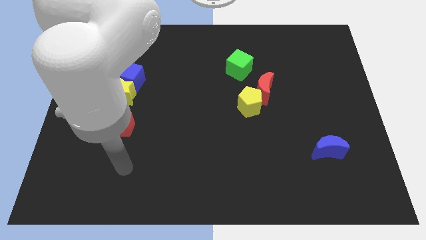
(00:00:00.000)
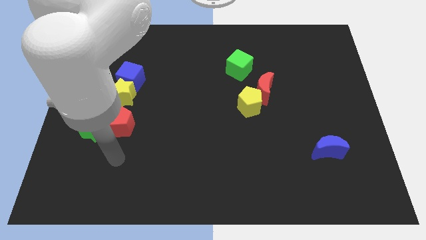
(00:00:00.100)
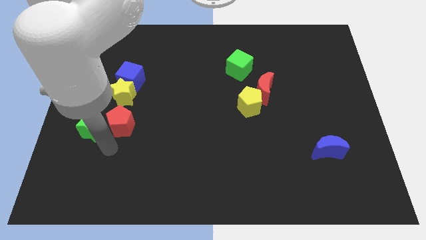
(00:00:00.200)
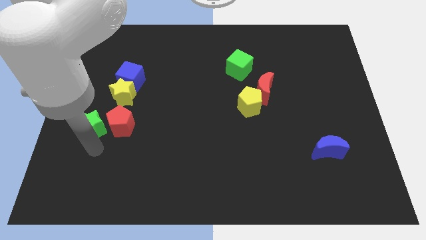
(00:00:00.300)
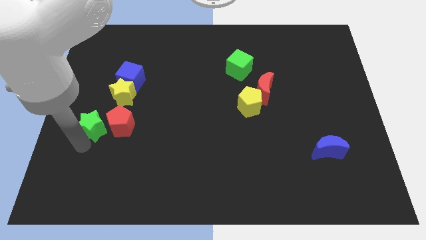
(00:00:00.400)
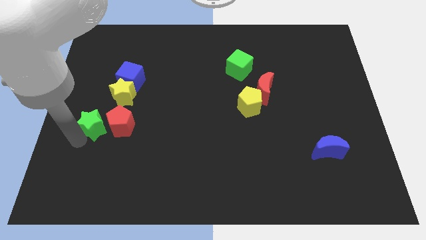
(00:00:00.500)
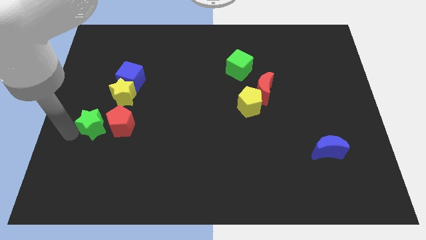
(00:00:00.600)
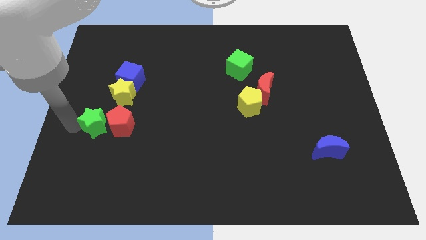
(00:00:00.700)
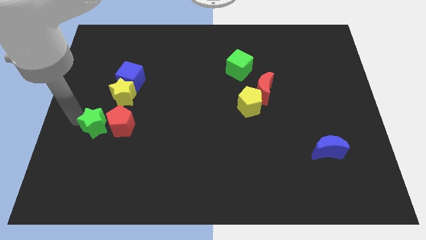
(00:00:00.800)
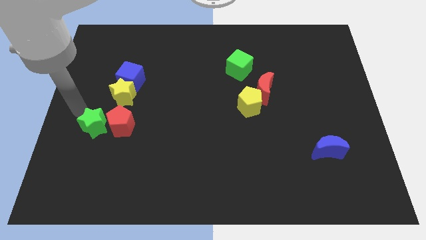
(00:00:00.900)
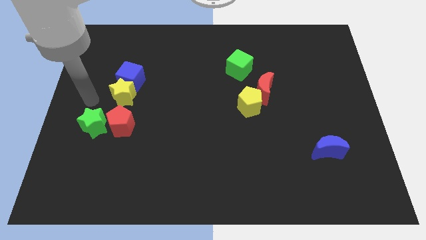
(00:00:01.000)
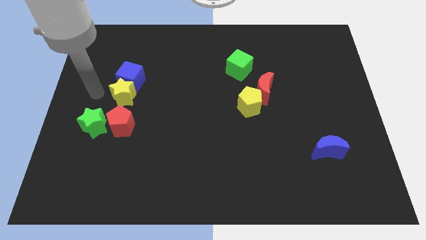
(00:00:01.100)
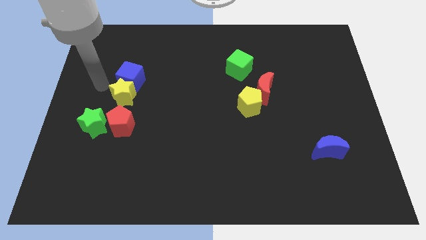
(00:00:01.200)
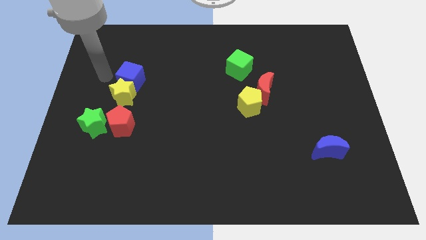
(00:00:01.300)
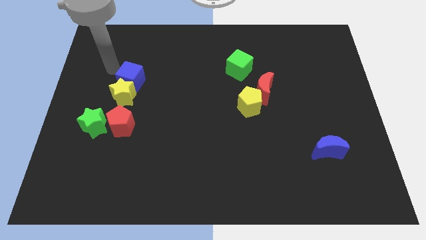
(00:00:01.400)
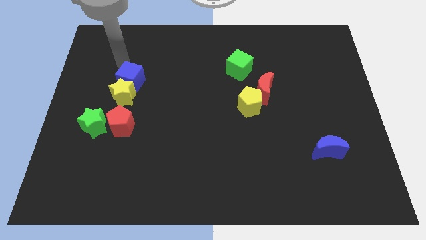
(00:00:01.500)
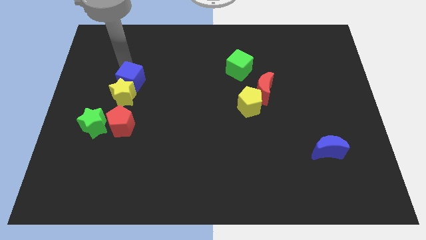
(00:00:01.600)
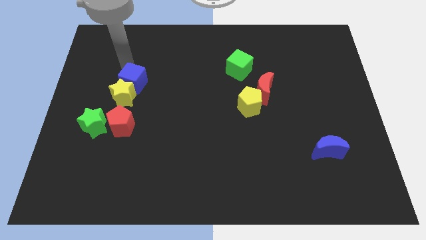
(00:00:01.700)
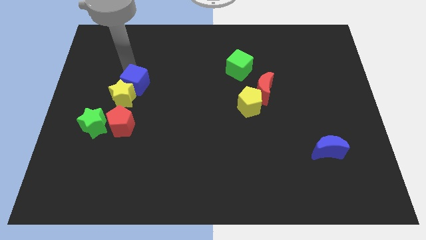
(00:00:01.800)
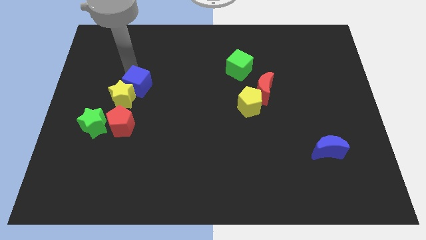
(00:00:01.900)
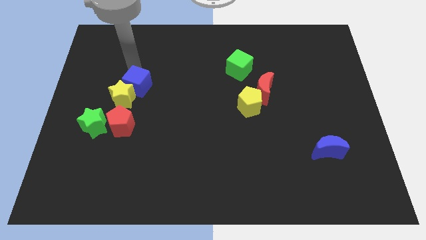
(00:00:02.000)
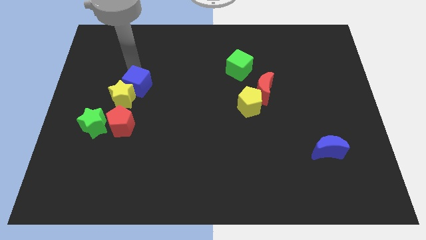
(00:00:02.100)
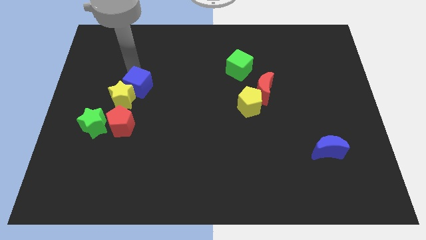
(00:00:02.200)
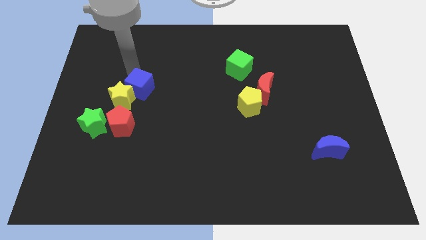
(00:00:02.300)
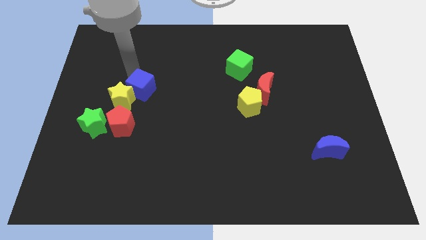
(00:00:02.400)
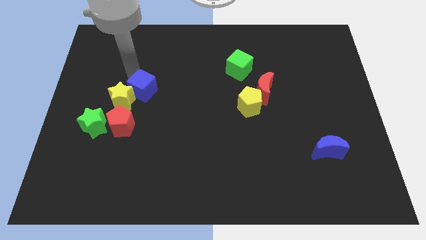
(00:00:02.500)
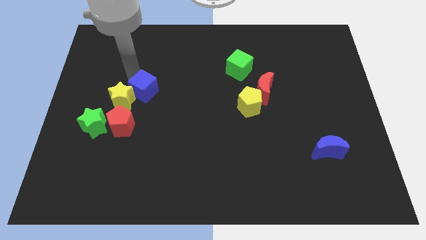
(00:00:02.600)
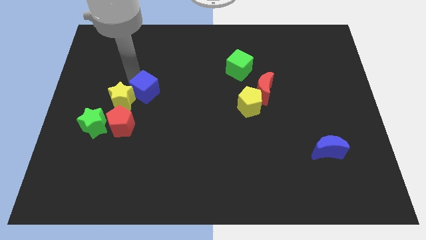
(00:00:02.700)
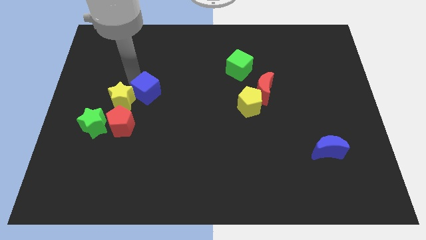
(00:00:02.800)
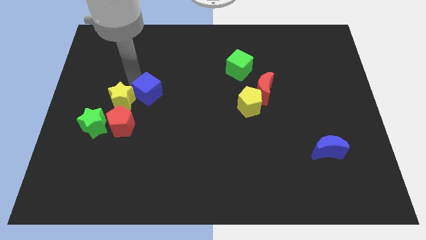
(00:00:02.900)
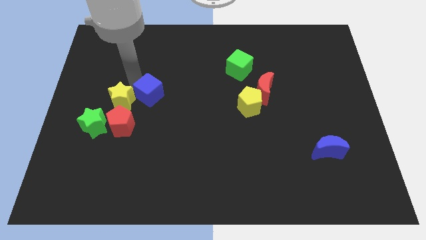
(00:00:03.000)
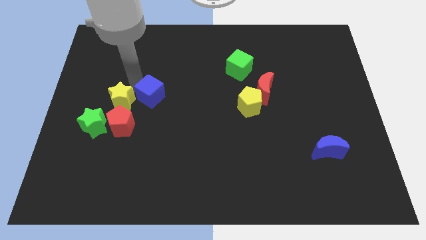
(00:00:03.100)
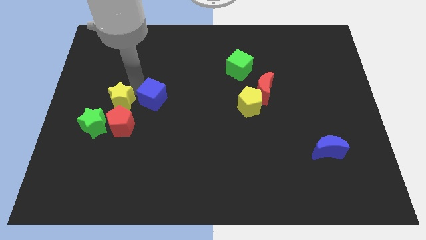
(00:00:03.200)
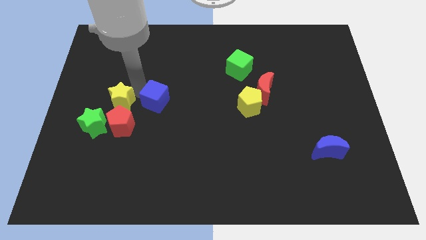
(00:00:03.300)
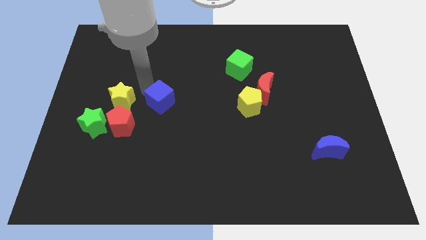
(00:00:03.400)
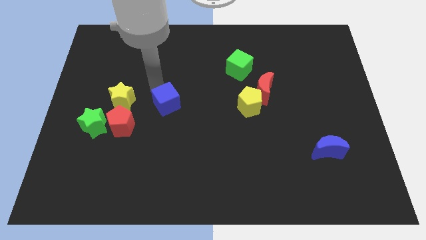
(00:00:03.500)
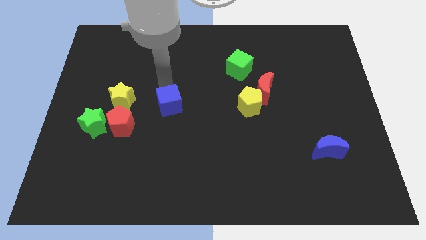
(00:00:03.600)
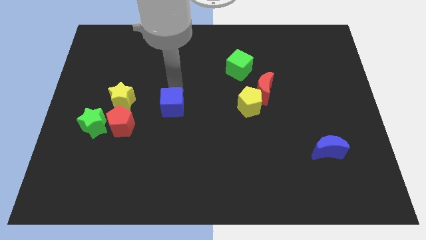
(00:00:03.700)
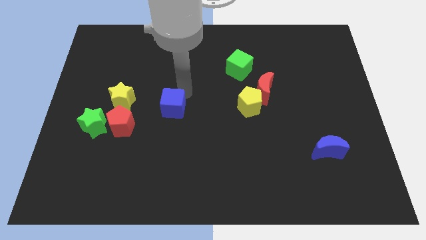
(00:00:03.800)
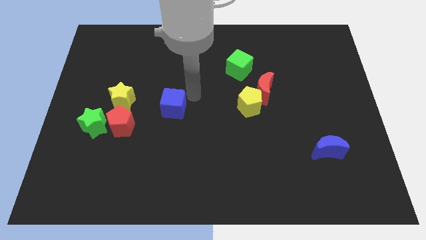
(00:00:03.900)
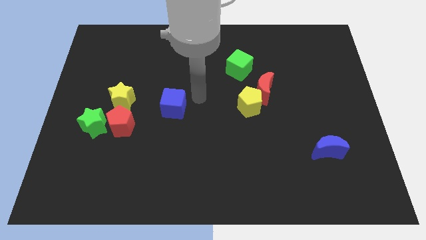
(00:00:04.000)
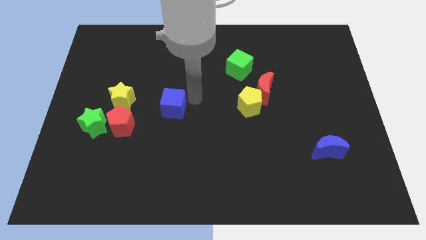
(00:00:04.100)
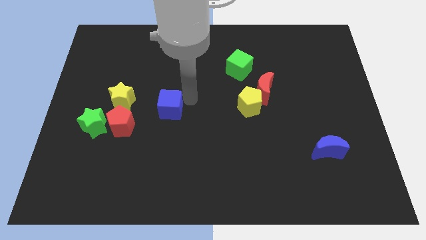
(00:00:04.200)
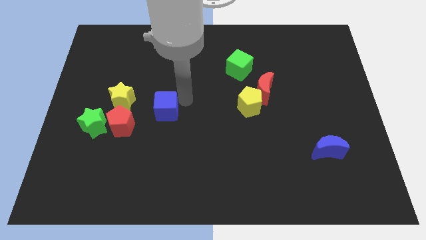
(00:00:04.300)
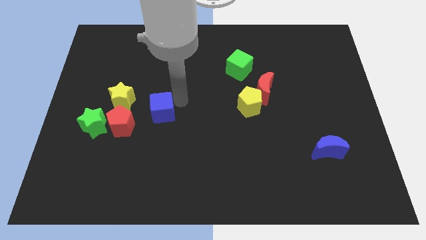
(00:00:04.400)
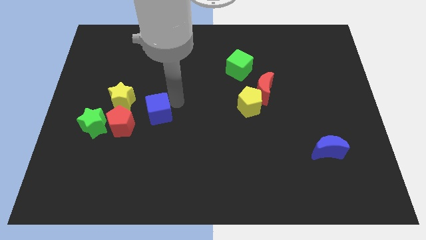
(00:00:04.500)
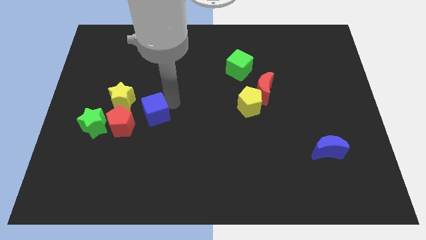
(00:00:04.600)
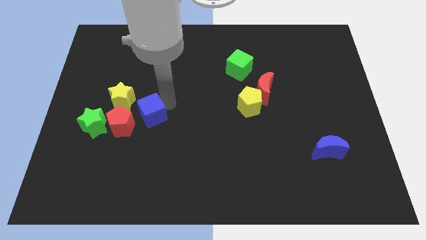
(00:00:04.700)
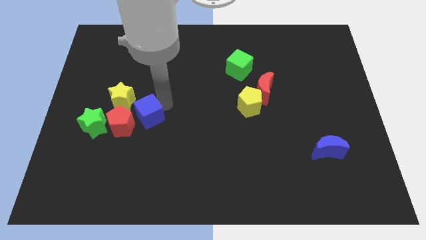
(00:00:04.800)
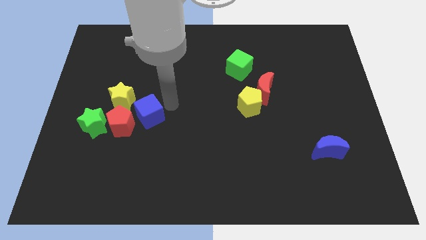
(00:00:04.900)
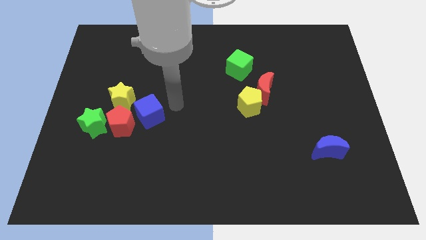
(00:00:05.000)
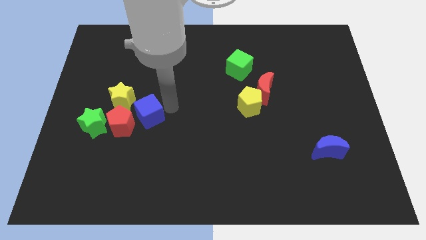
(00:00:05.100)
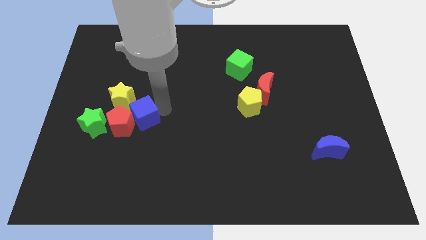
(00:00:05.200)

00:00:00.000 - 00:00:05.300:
move the blue cube close to the red pentagon

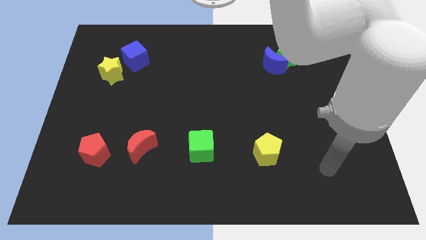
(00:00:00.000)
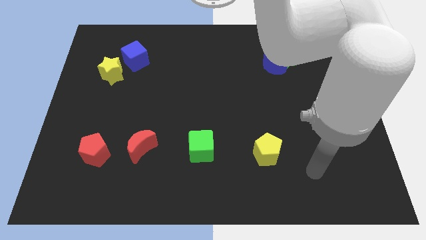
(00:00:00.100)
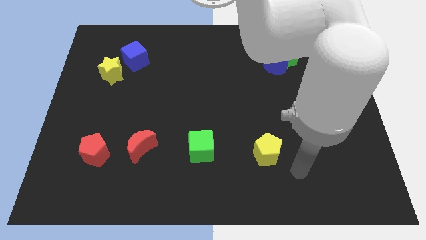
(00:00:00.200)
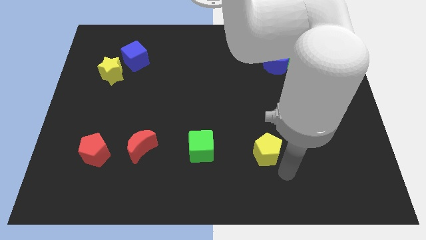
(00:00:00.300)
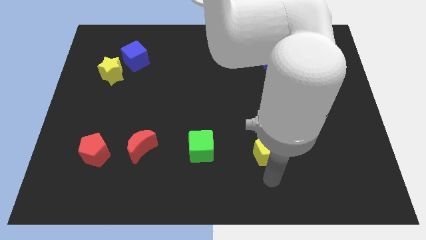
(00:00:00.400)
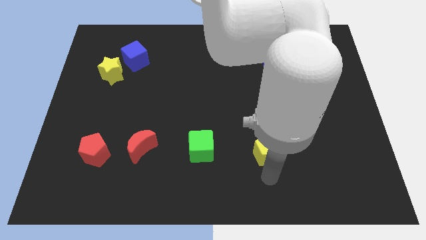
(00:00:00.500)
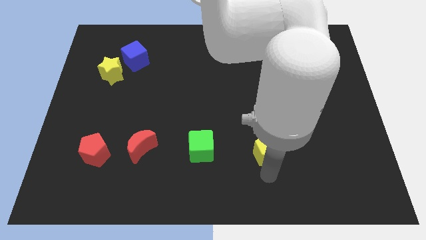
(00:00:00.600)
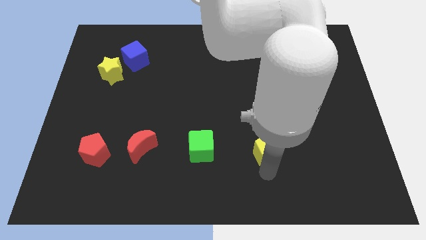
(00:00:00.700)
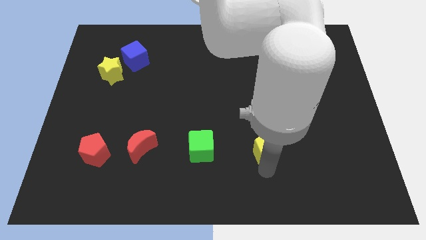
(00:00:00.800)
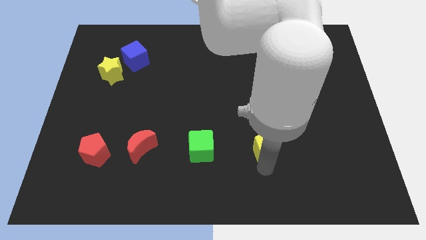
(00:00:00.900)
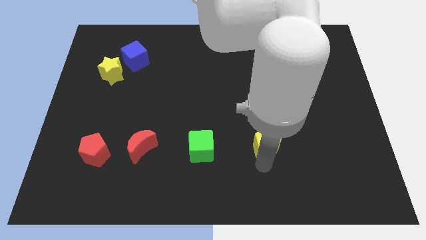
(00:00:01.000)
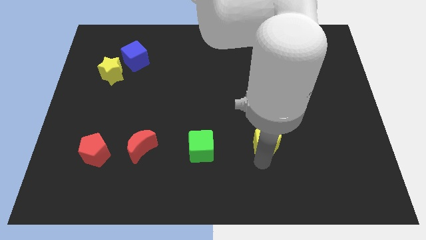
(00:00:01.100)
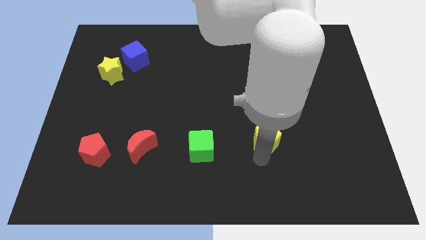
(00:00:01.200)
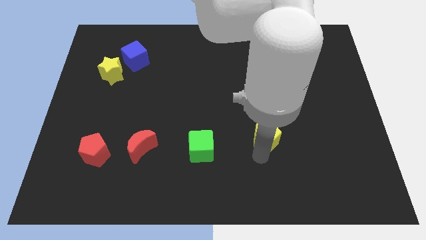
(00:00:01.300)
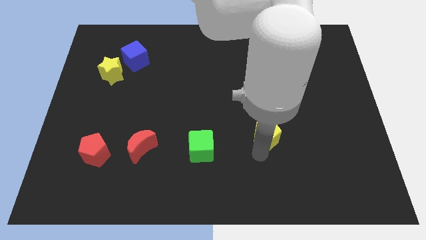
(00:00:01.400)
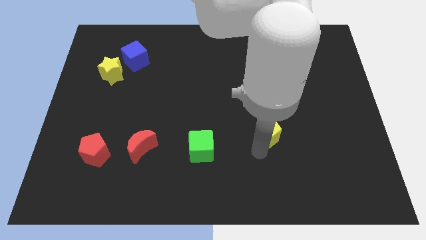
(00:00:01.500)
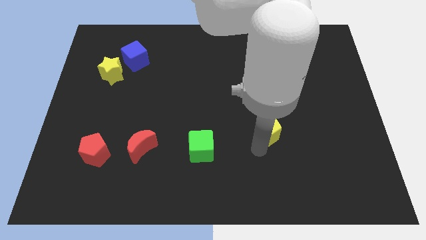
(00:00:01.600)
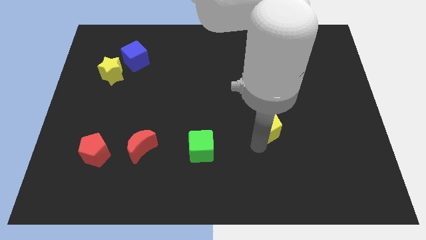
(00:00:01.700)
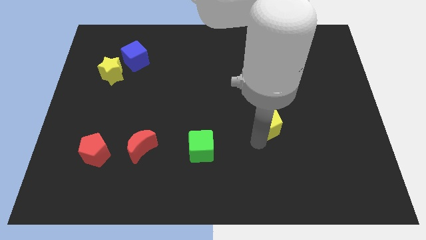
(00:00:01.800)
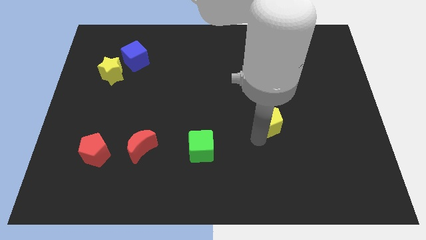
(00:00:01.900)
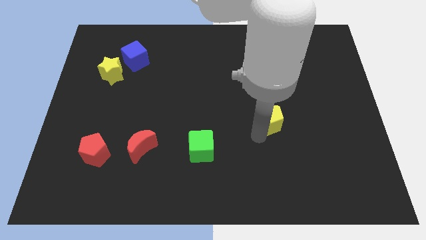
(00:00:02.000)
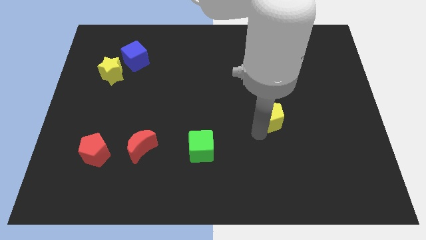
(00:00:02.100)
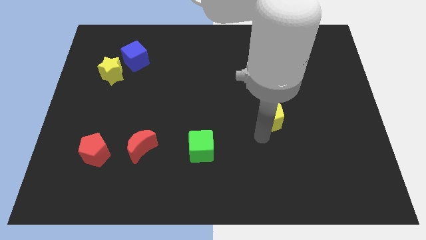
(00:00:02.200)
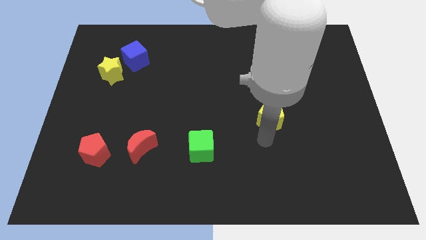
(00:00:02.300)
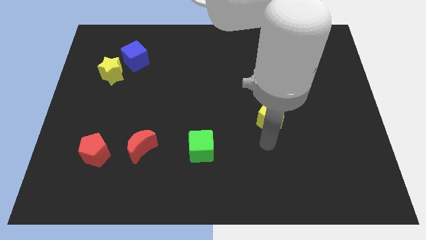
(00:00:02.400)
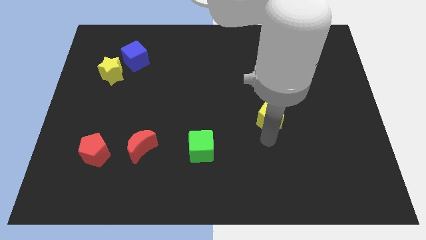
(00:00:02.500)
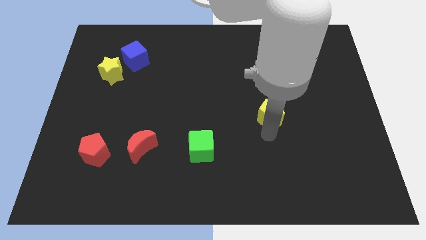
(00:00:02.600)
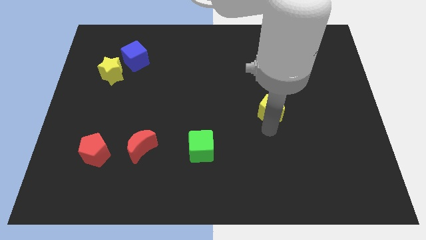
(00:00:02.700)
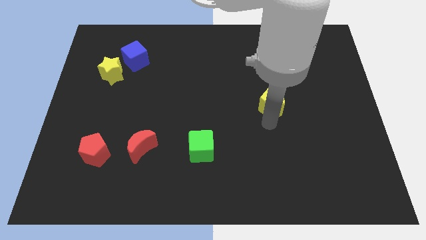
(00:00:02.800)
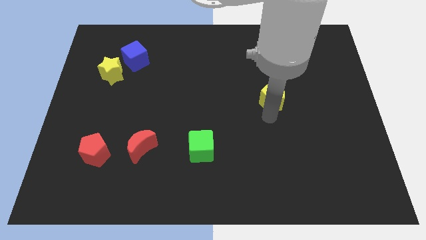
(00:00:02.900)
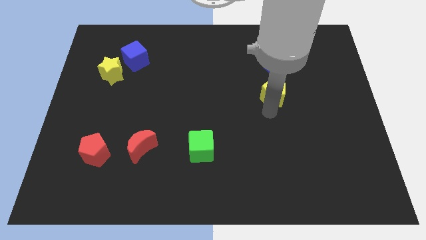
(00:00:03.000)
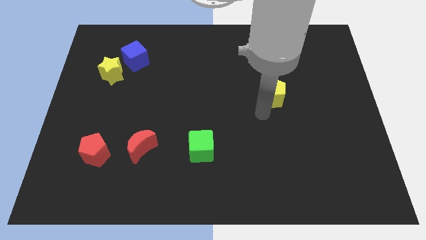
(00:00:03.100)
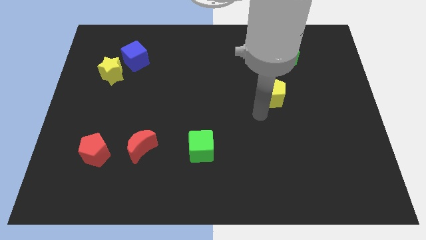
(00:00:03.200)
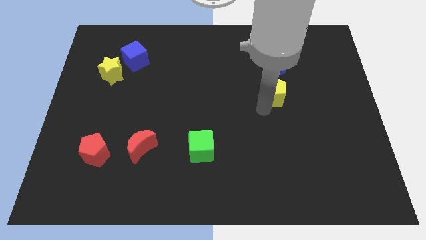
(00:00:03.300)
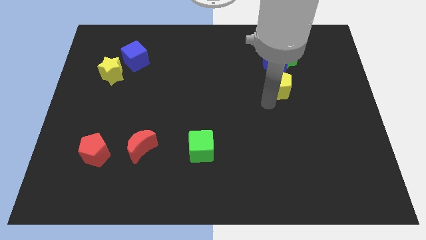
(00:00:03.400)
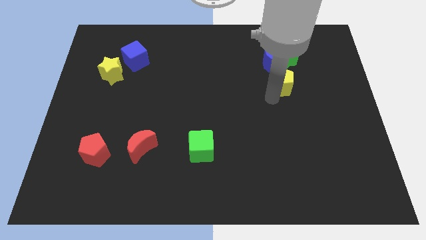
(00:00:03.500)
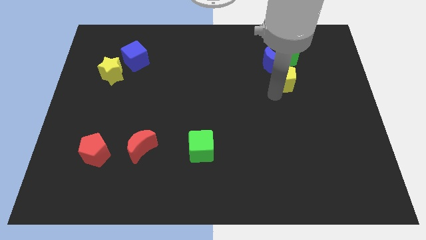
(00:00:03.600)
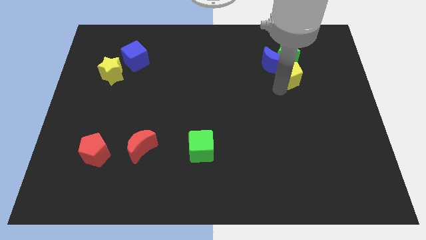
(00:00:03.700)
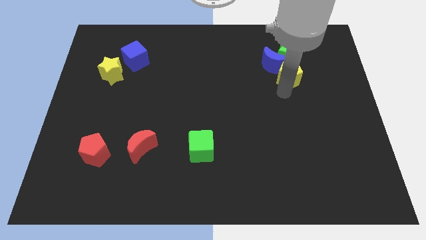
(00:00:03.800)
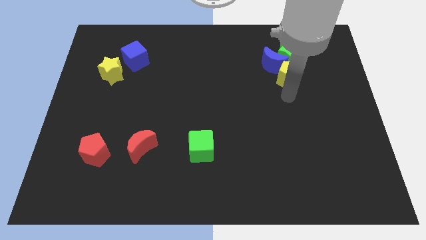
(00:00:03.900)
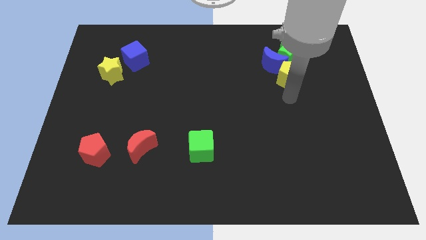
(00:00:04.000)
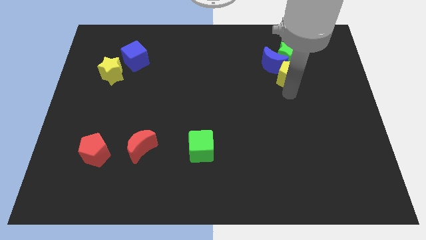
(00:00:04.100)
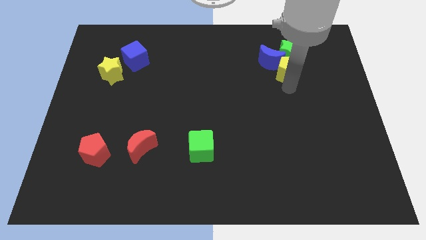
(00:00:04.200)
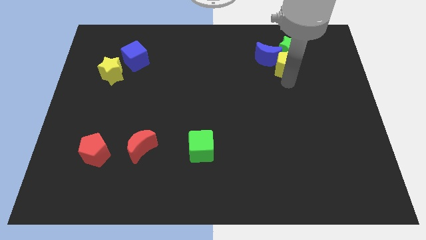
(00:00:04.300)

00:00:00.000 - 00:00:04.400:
move the yellow pentagon towards the green star
